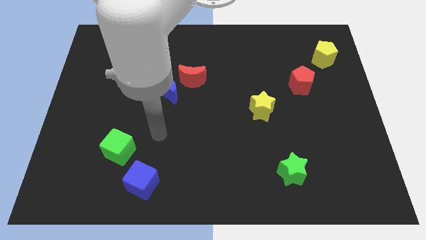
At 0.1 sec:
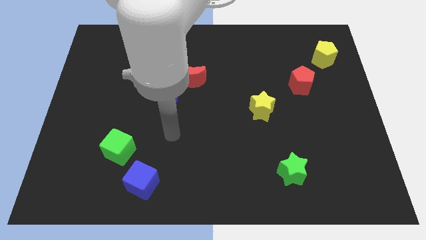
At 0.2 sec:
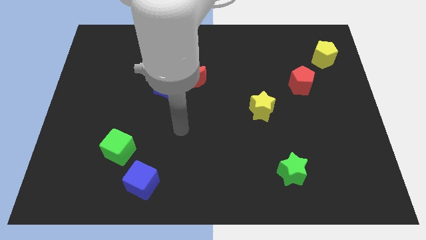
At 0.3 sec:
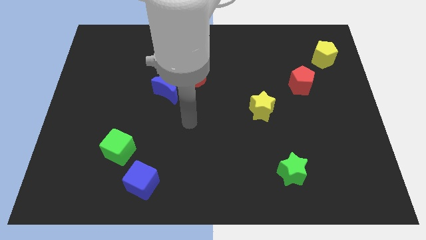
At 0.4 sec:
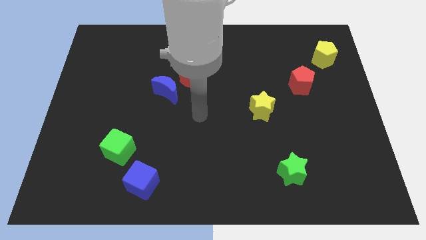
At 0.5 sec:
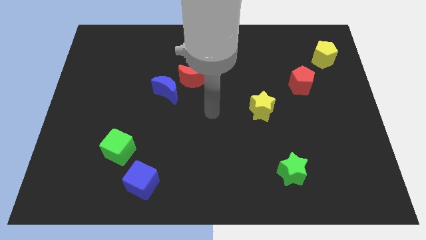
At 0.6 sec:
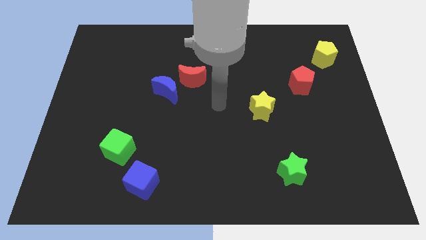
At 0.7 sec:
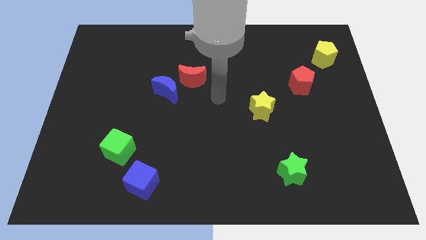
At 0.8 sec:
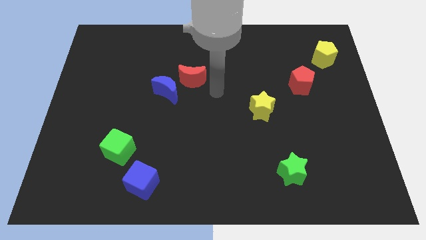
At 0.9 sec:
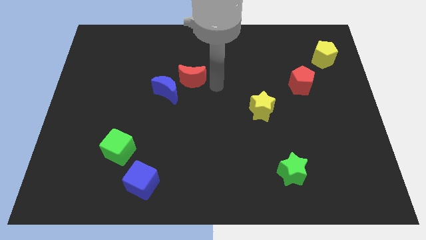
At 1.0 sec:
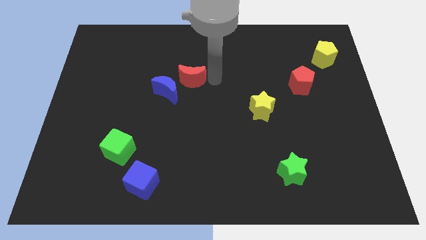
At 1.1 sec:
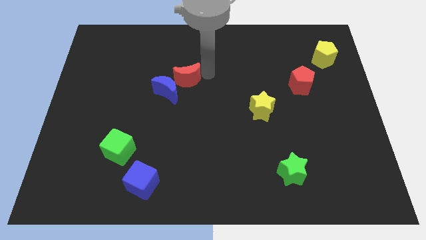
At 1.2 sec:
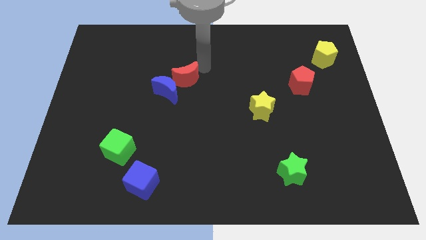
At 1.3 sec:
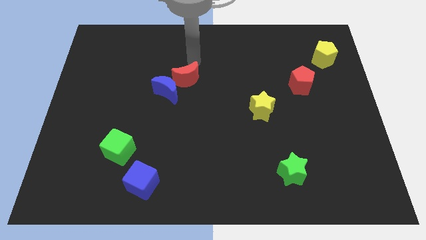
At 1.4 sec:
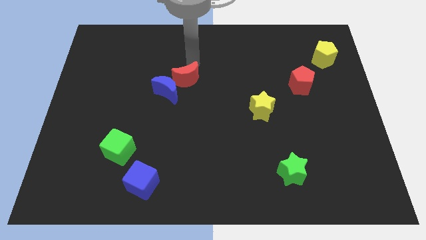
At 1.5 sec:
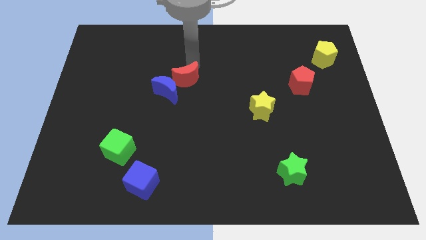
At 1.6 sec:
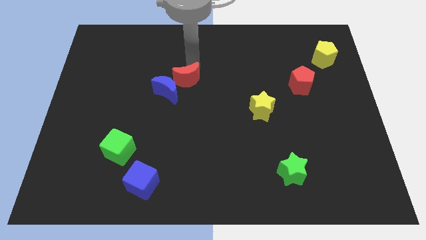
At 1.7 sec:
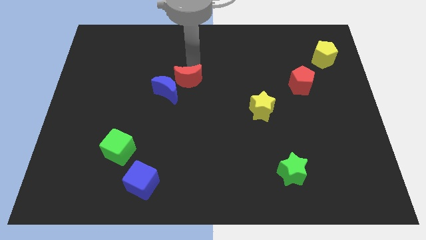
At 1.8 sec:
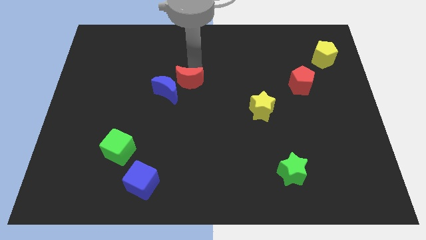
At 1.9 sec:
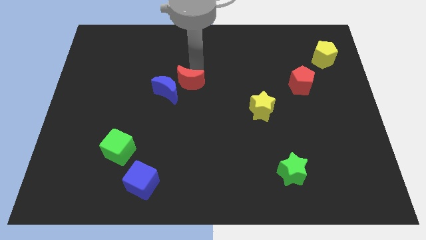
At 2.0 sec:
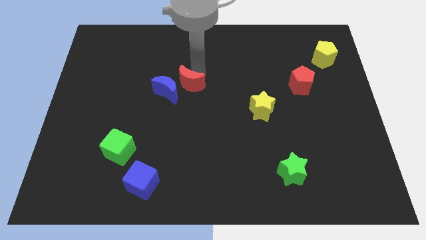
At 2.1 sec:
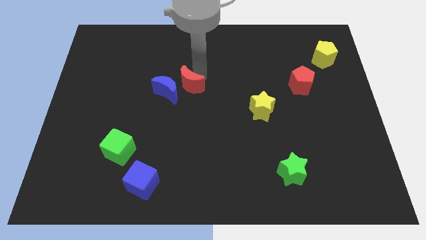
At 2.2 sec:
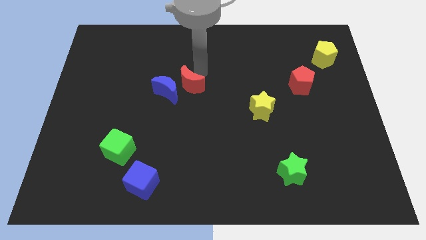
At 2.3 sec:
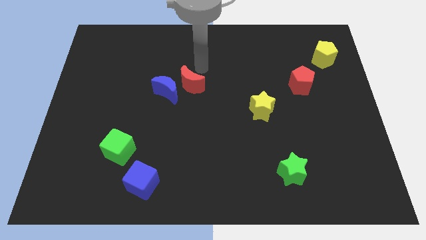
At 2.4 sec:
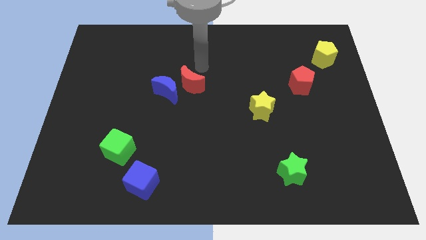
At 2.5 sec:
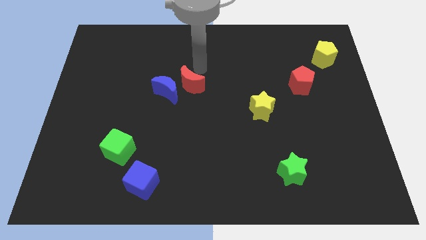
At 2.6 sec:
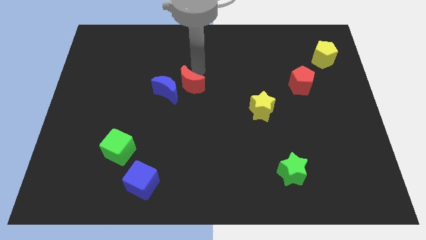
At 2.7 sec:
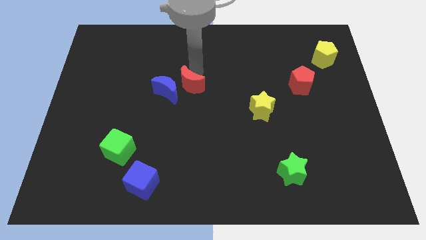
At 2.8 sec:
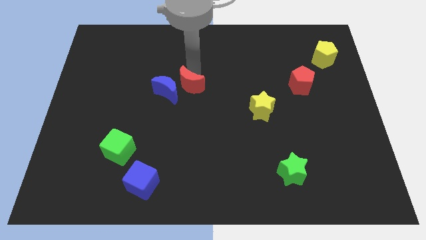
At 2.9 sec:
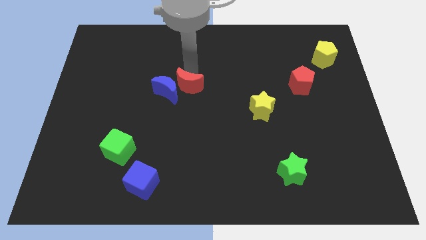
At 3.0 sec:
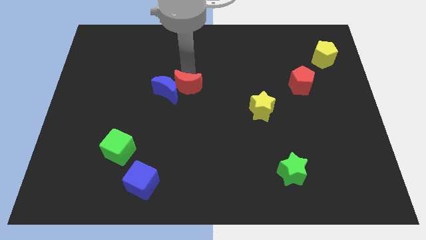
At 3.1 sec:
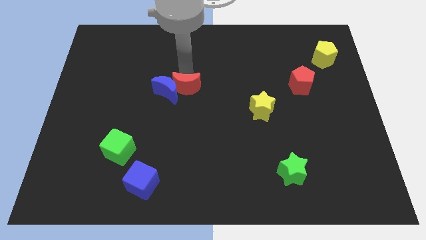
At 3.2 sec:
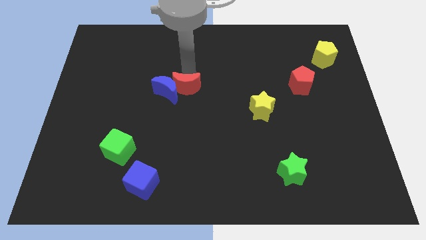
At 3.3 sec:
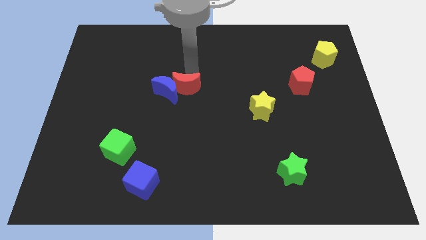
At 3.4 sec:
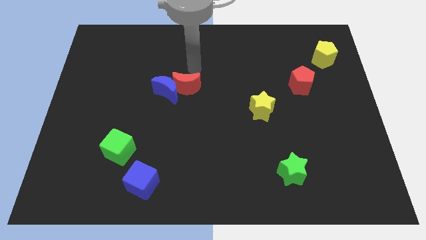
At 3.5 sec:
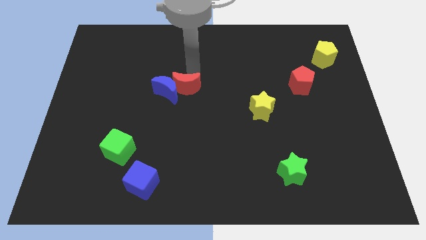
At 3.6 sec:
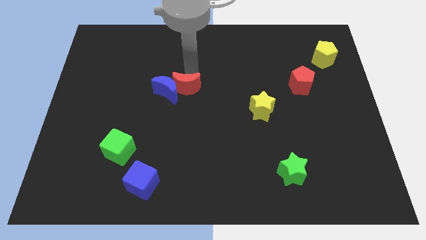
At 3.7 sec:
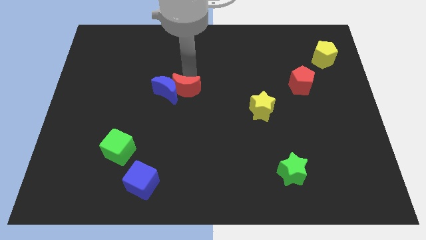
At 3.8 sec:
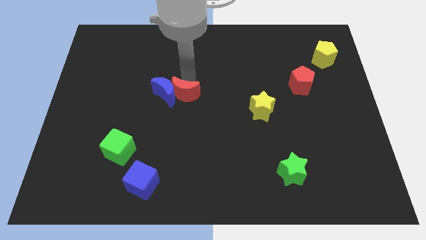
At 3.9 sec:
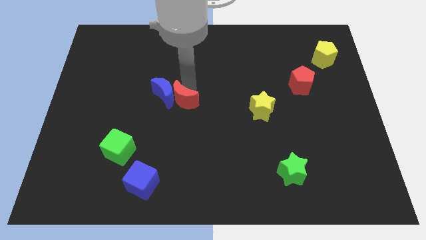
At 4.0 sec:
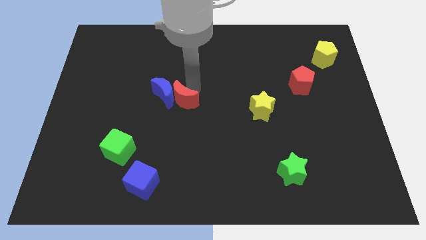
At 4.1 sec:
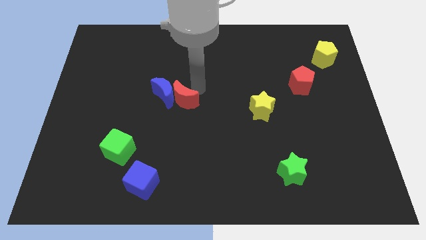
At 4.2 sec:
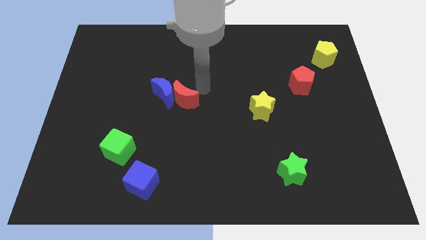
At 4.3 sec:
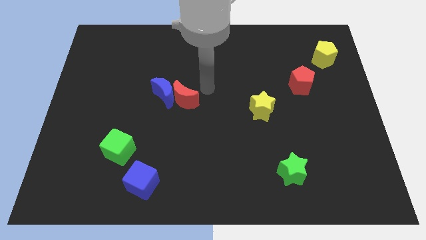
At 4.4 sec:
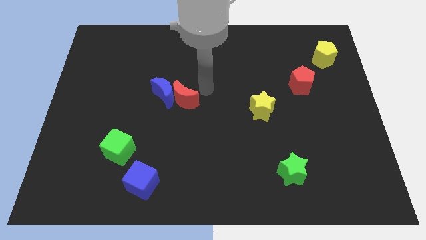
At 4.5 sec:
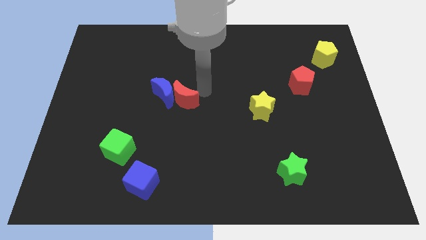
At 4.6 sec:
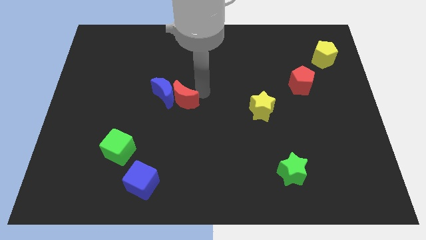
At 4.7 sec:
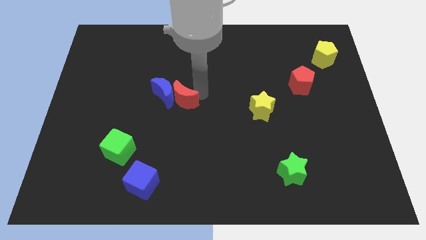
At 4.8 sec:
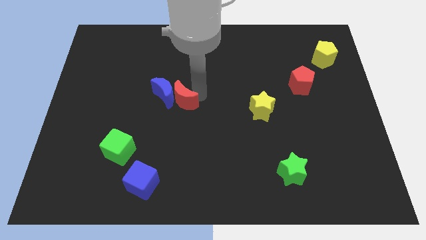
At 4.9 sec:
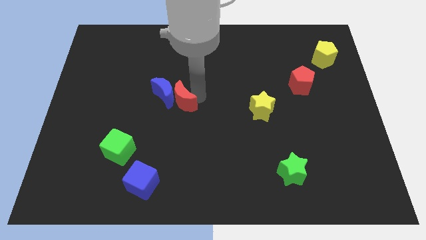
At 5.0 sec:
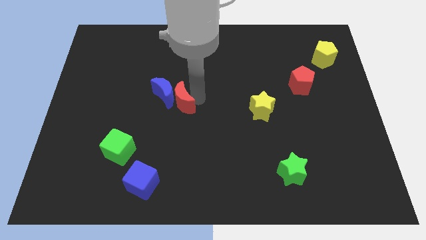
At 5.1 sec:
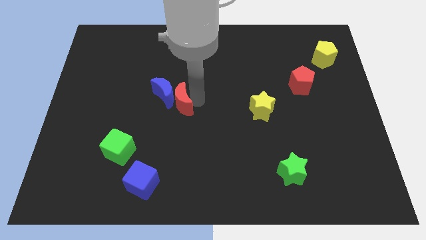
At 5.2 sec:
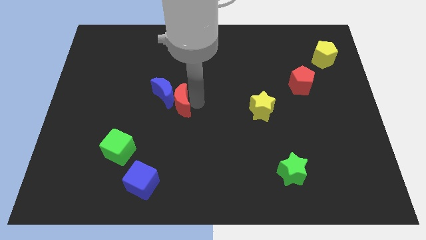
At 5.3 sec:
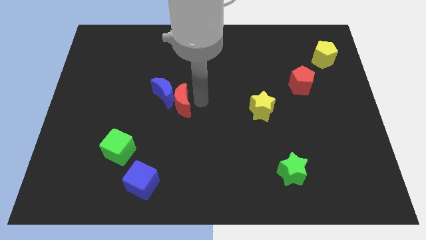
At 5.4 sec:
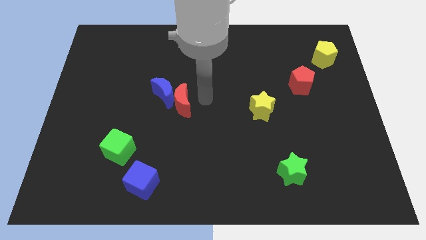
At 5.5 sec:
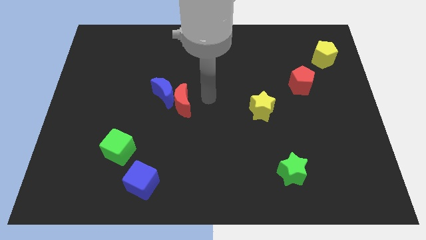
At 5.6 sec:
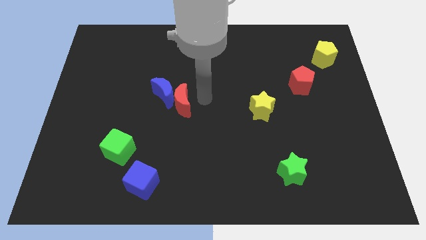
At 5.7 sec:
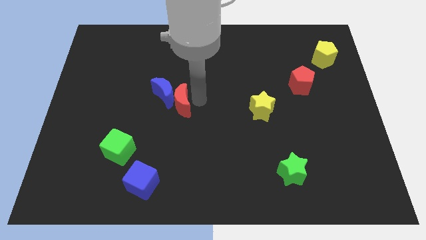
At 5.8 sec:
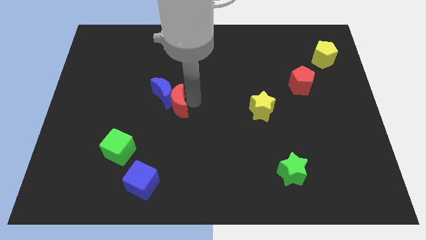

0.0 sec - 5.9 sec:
slightly slide the red moon downwards and then left

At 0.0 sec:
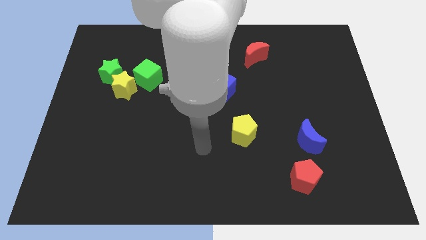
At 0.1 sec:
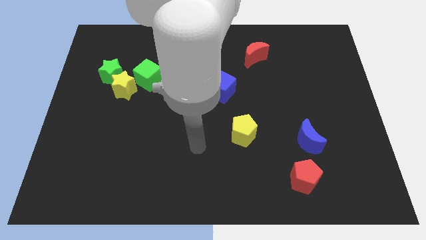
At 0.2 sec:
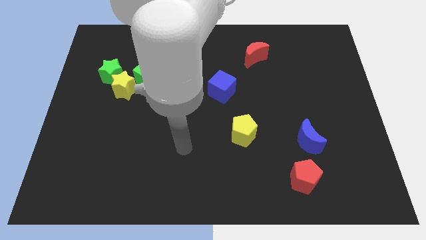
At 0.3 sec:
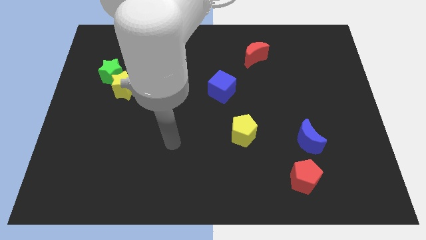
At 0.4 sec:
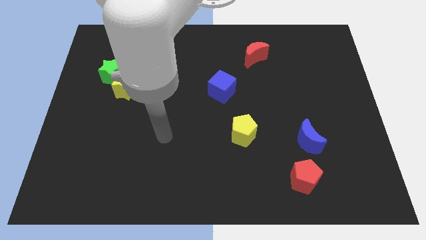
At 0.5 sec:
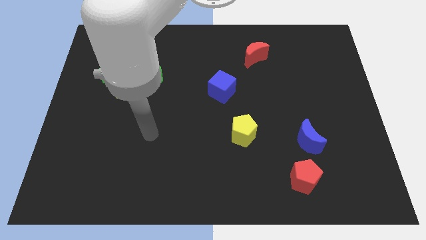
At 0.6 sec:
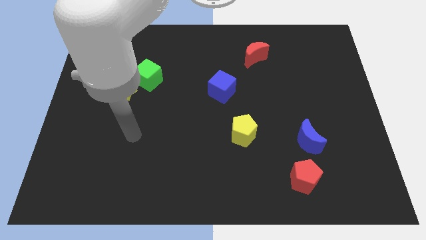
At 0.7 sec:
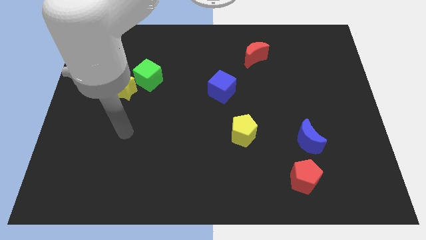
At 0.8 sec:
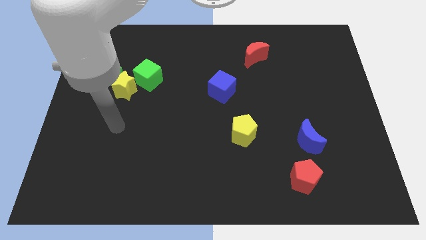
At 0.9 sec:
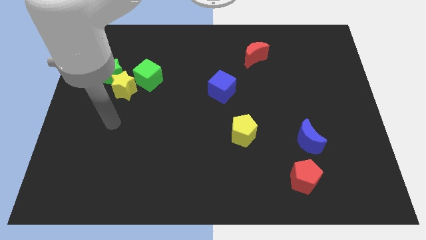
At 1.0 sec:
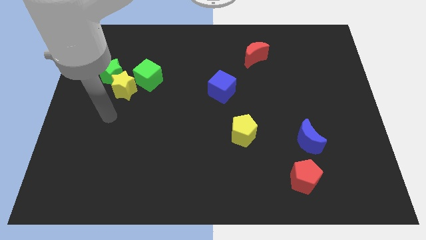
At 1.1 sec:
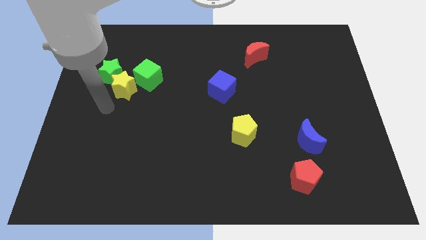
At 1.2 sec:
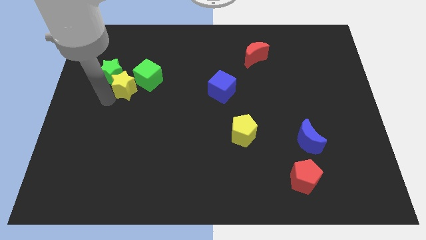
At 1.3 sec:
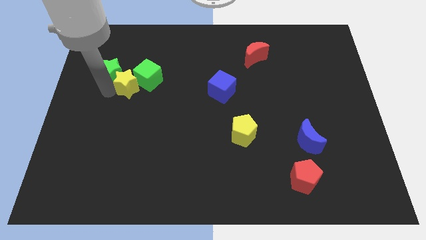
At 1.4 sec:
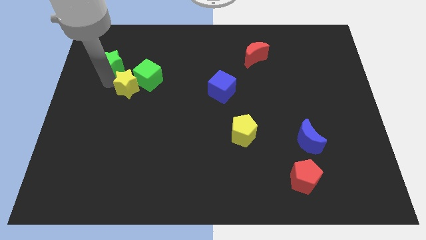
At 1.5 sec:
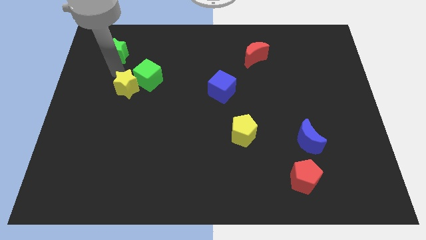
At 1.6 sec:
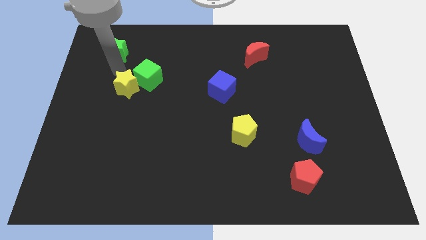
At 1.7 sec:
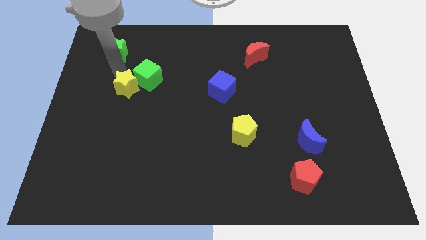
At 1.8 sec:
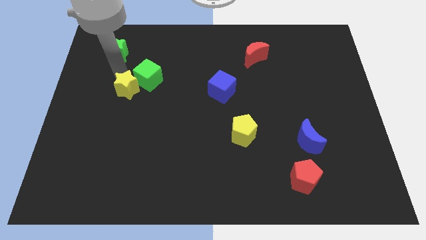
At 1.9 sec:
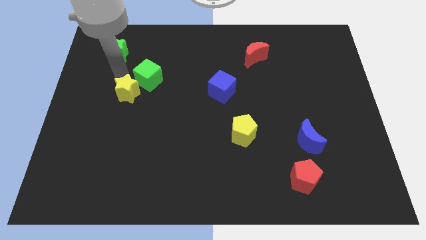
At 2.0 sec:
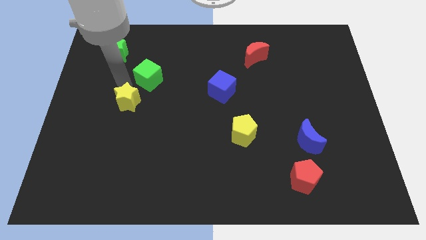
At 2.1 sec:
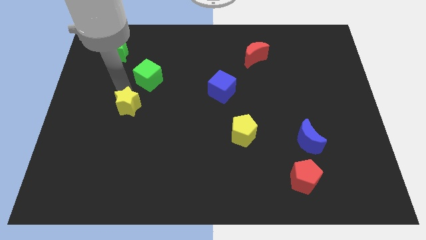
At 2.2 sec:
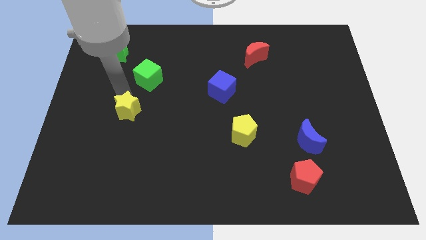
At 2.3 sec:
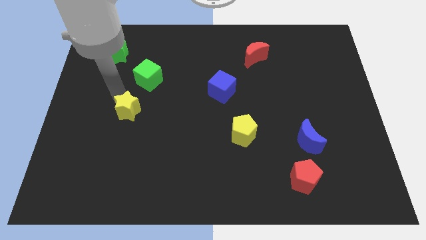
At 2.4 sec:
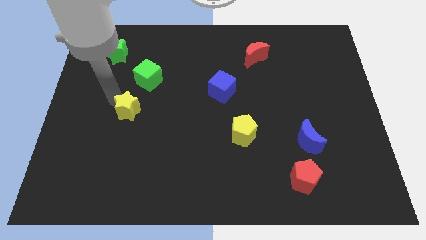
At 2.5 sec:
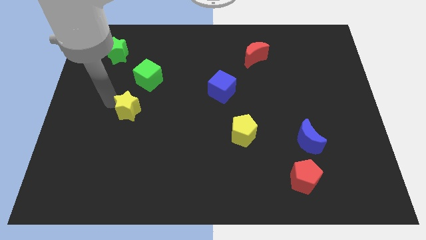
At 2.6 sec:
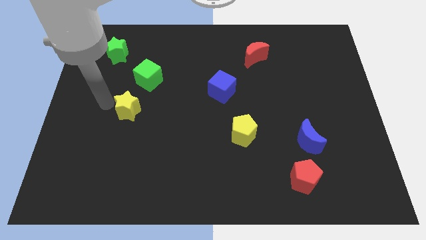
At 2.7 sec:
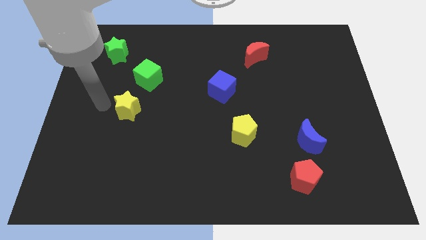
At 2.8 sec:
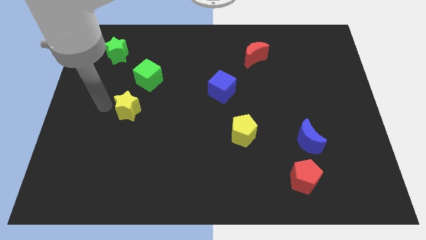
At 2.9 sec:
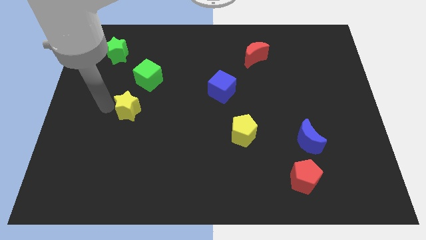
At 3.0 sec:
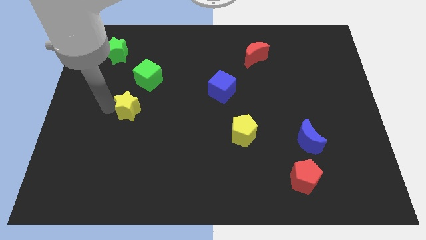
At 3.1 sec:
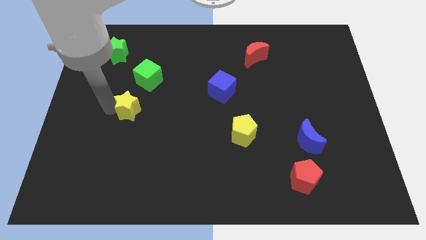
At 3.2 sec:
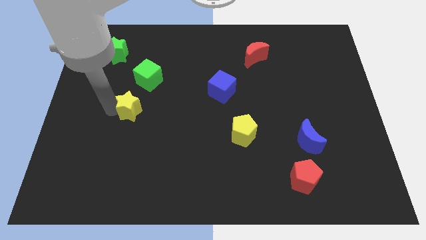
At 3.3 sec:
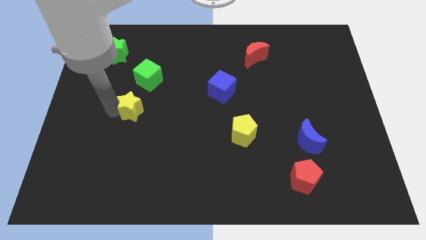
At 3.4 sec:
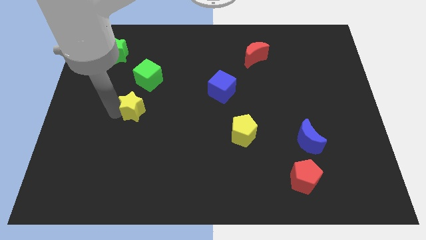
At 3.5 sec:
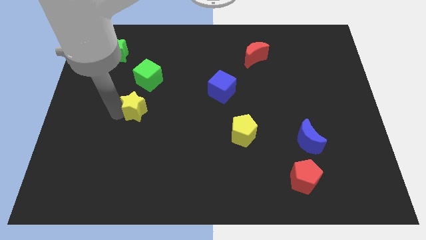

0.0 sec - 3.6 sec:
slightly push the yellow star diagonally down and right
